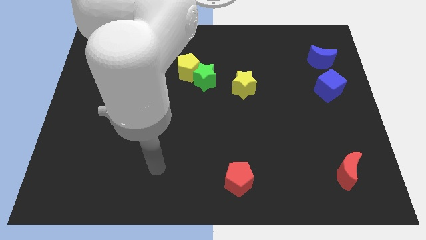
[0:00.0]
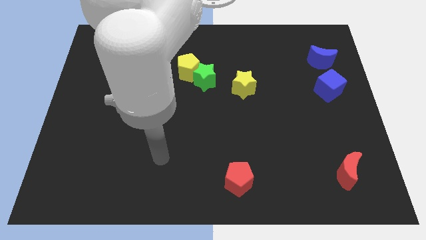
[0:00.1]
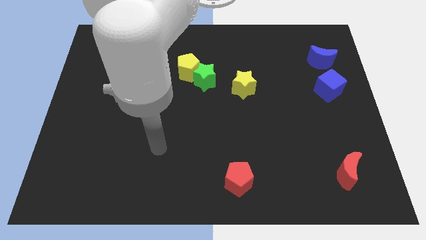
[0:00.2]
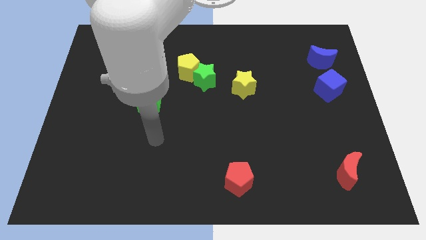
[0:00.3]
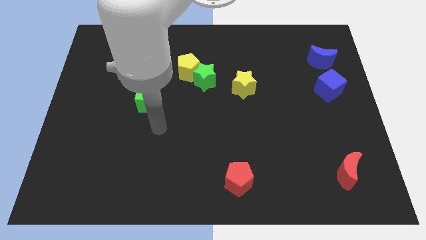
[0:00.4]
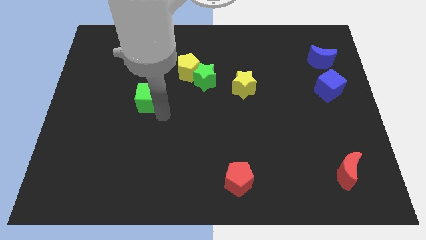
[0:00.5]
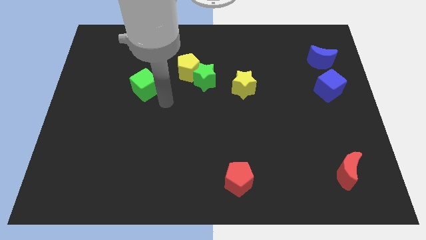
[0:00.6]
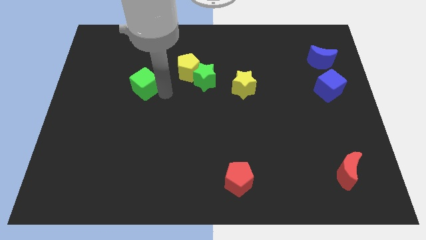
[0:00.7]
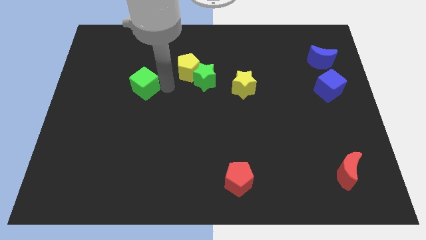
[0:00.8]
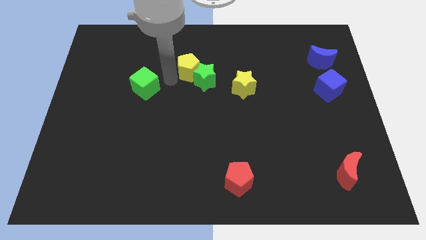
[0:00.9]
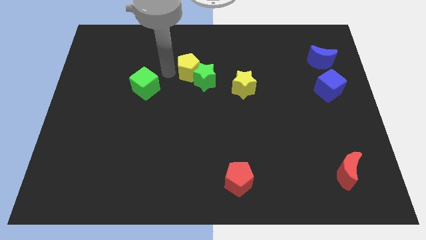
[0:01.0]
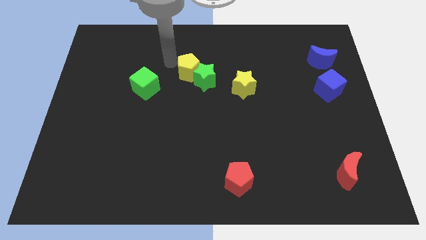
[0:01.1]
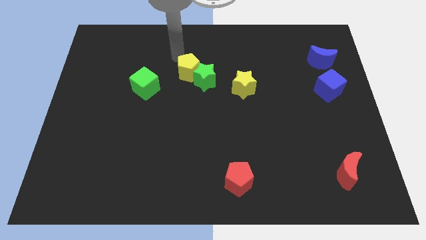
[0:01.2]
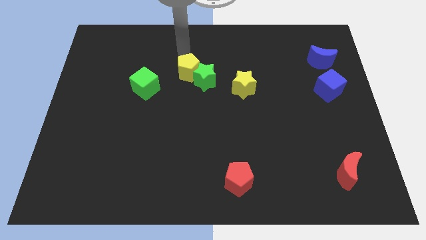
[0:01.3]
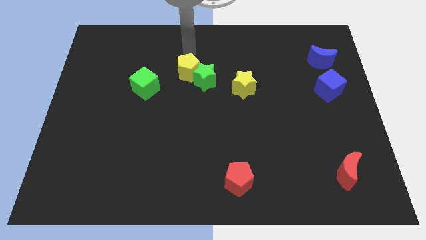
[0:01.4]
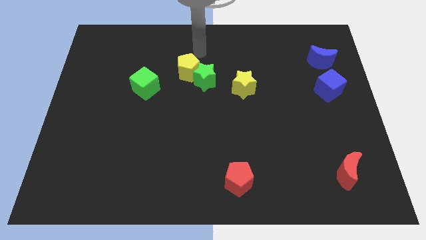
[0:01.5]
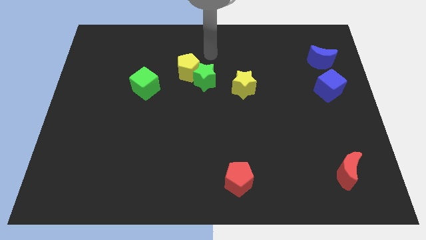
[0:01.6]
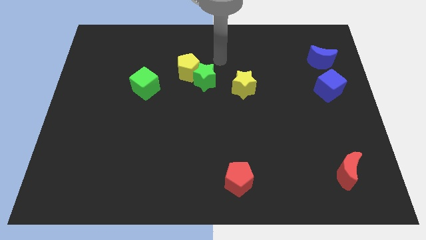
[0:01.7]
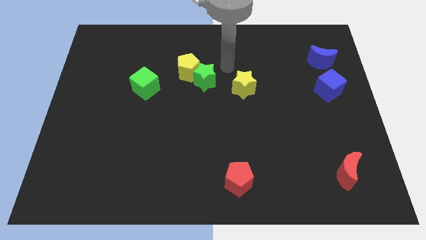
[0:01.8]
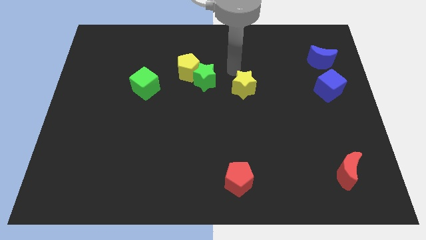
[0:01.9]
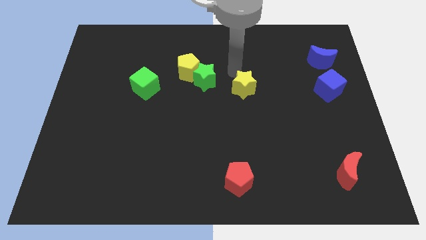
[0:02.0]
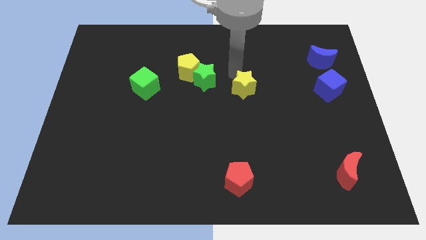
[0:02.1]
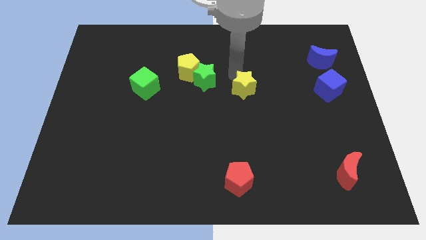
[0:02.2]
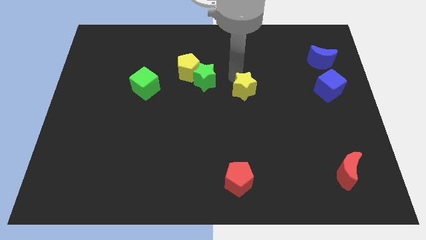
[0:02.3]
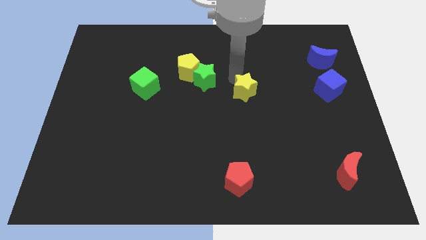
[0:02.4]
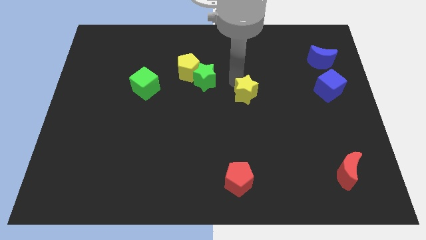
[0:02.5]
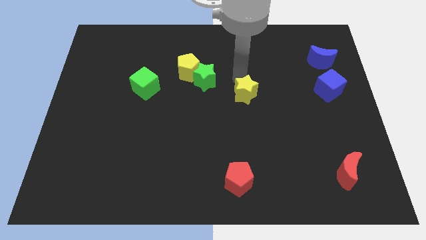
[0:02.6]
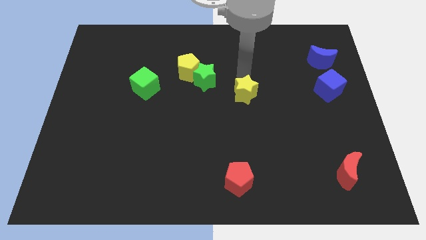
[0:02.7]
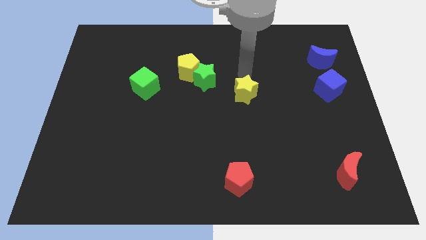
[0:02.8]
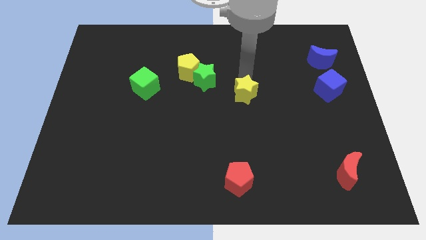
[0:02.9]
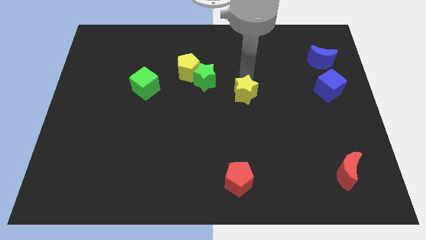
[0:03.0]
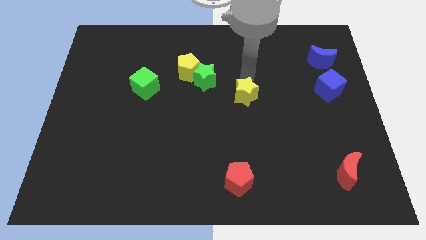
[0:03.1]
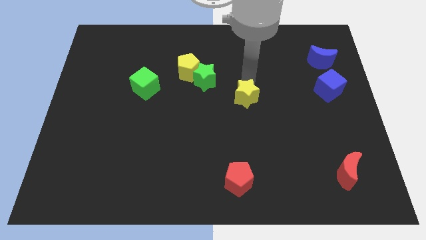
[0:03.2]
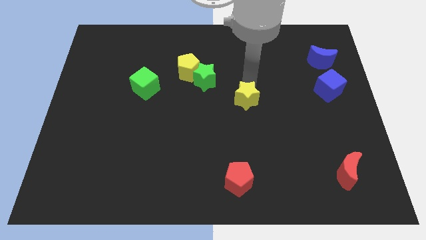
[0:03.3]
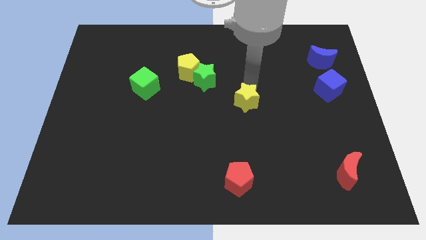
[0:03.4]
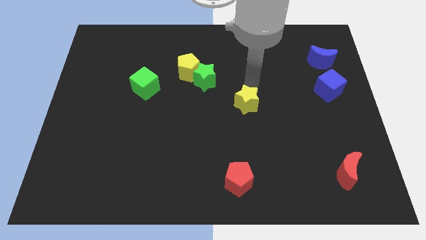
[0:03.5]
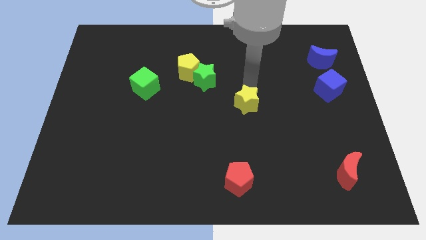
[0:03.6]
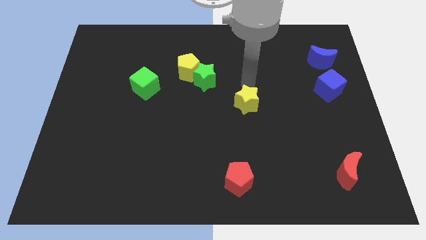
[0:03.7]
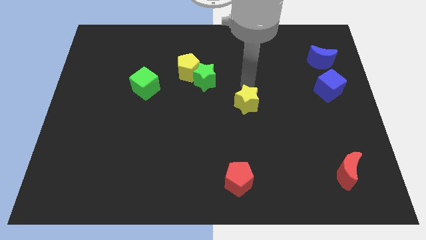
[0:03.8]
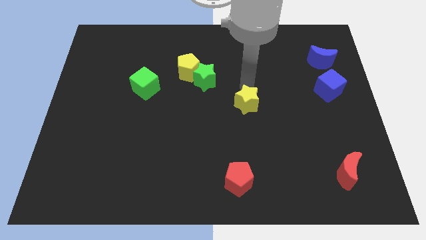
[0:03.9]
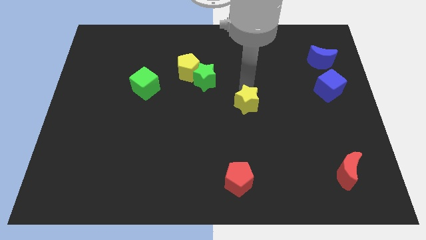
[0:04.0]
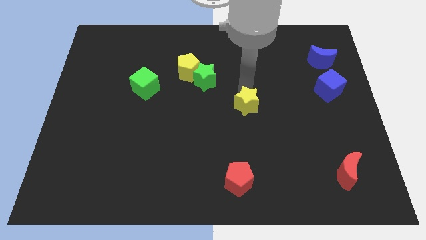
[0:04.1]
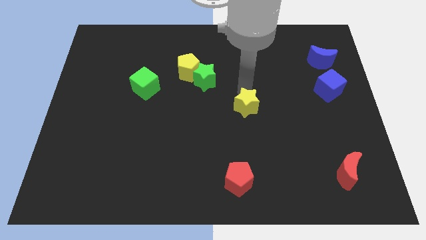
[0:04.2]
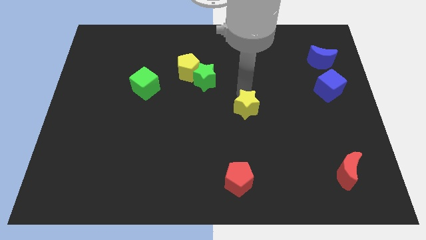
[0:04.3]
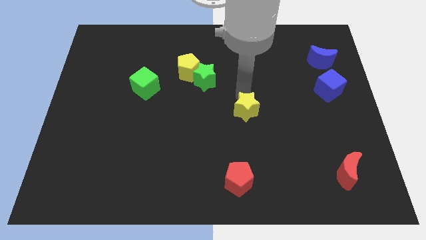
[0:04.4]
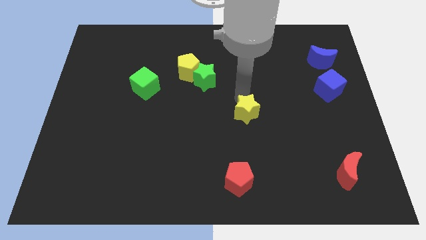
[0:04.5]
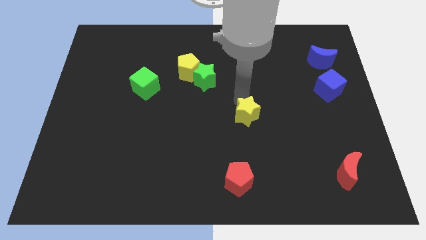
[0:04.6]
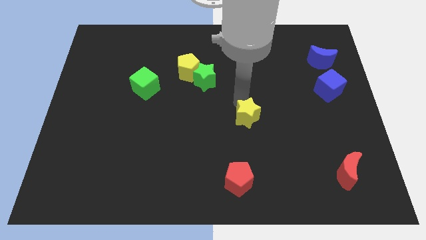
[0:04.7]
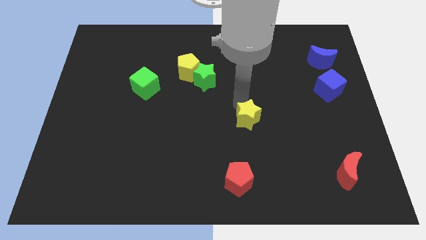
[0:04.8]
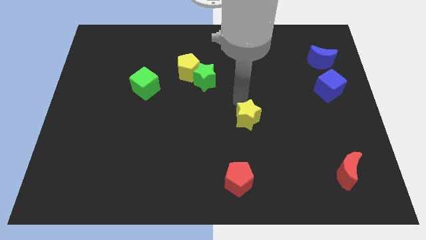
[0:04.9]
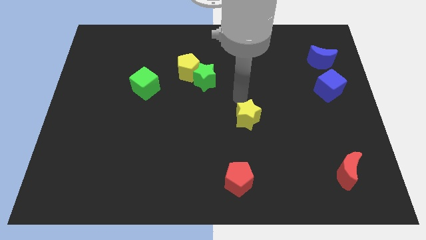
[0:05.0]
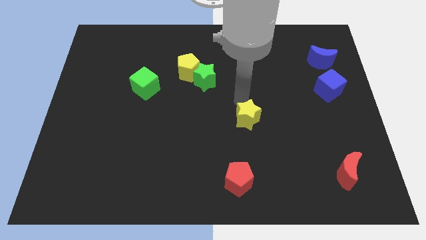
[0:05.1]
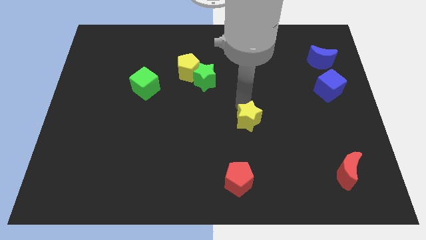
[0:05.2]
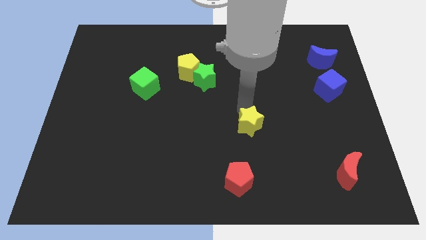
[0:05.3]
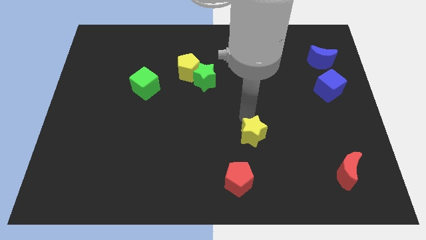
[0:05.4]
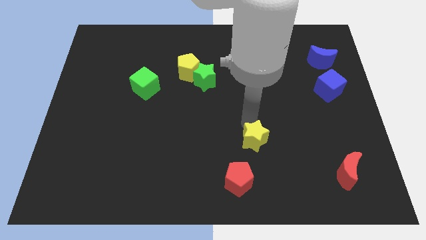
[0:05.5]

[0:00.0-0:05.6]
slide the yellow star to the top right side of the red pentagon

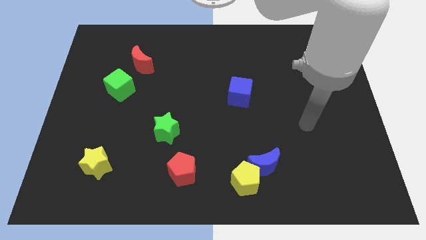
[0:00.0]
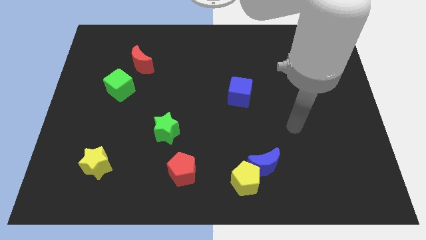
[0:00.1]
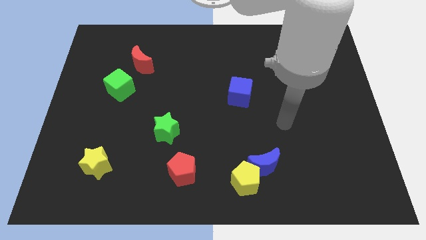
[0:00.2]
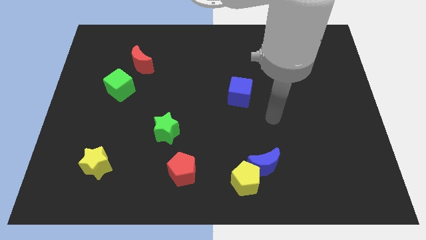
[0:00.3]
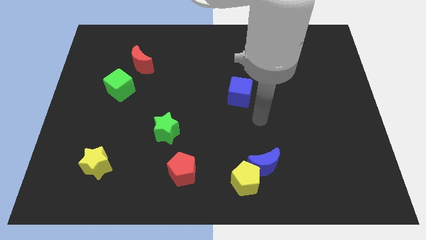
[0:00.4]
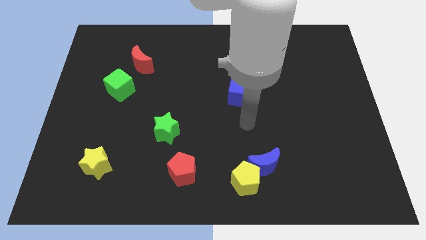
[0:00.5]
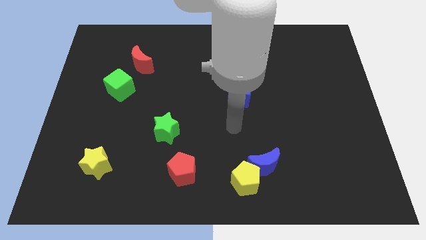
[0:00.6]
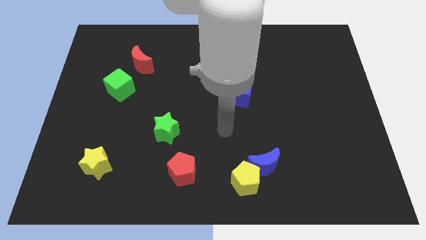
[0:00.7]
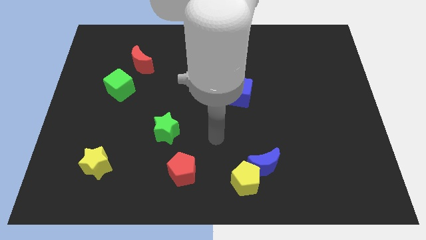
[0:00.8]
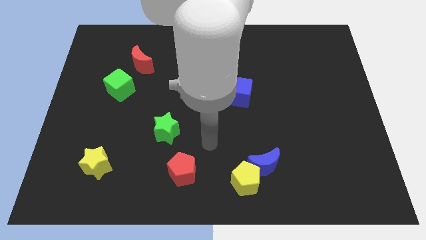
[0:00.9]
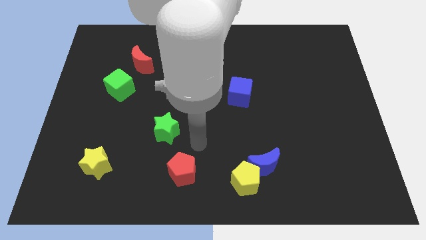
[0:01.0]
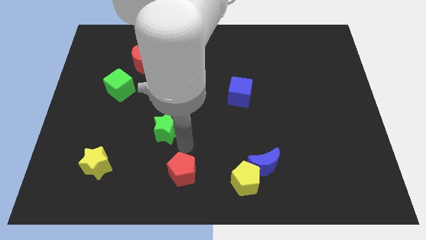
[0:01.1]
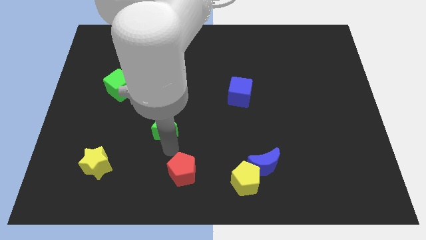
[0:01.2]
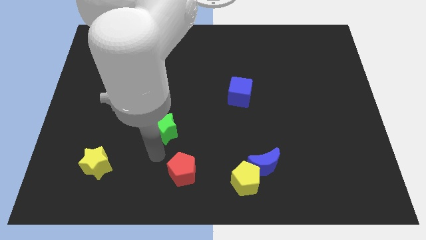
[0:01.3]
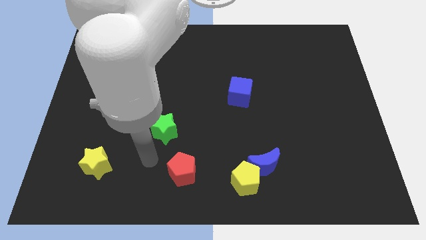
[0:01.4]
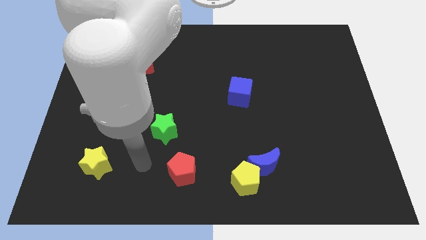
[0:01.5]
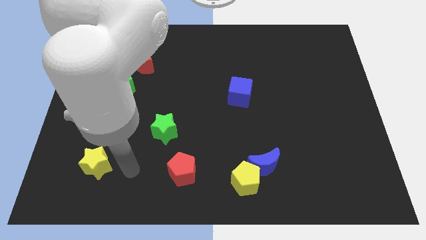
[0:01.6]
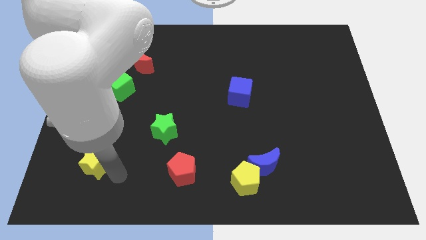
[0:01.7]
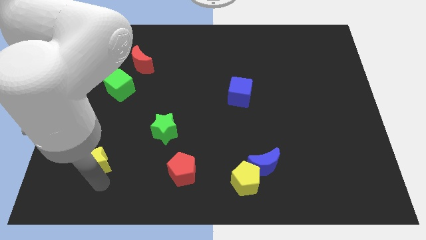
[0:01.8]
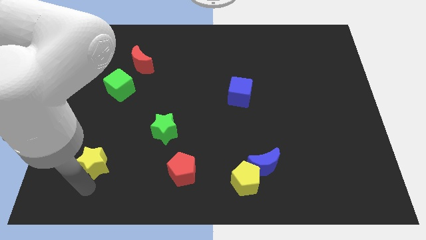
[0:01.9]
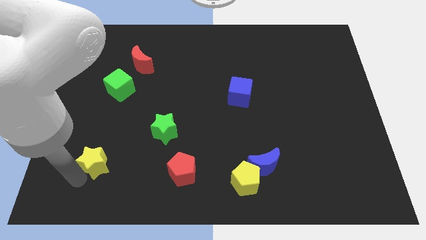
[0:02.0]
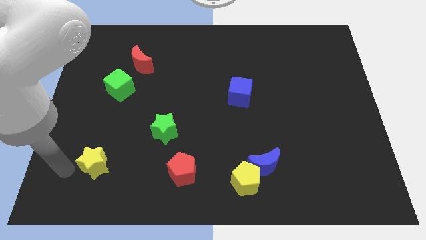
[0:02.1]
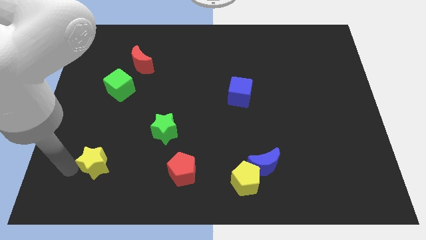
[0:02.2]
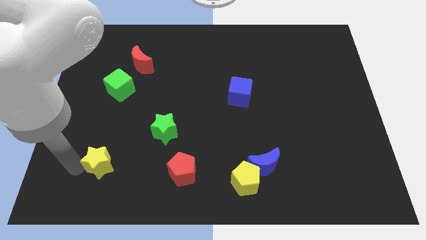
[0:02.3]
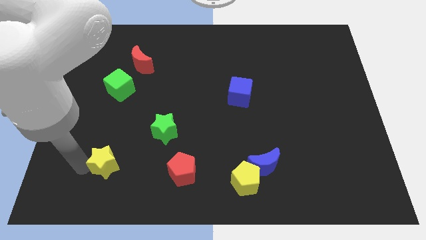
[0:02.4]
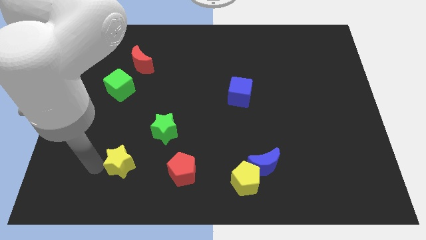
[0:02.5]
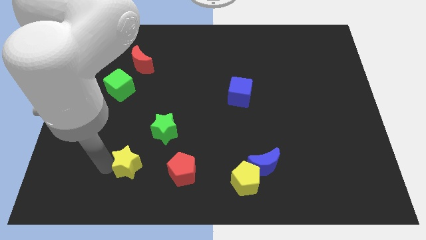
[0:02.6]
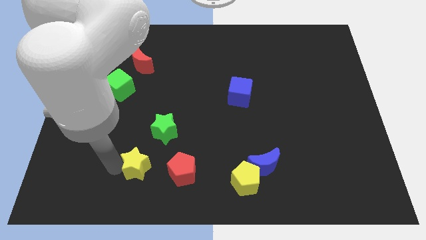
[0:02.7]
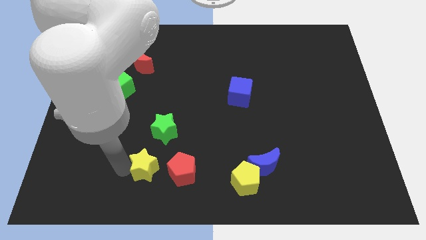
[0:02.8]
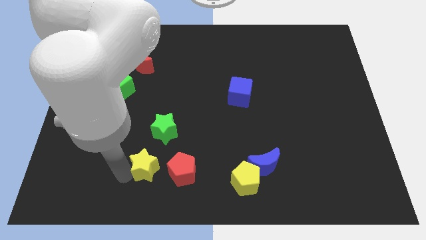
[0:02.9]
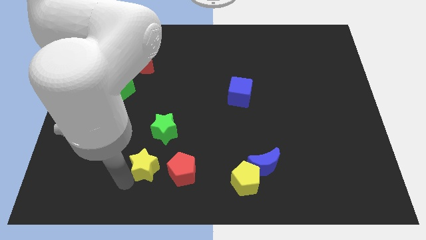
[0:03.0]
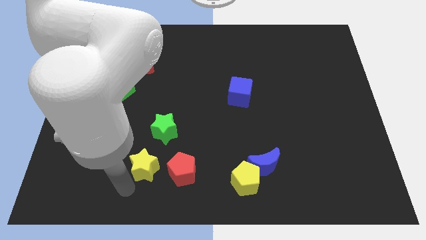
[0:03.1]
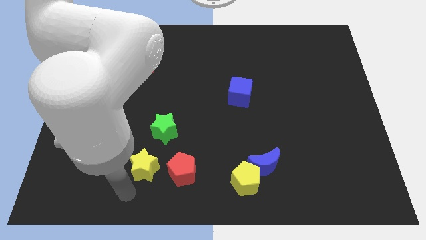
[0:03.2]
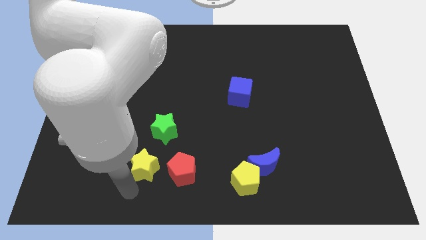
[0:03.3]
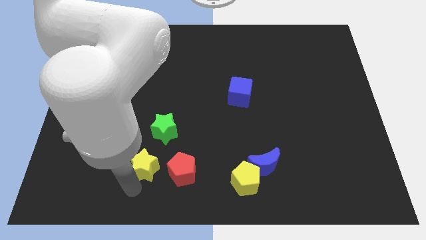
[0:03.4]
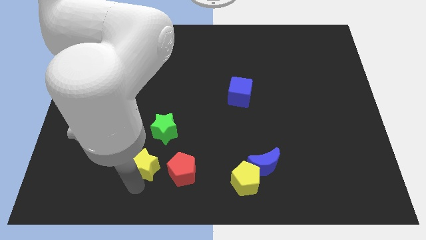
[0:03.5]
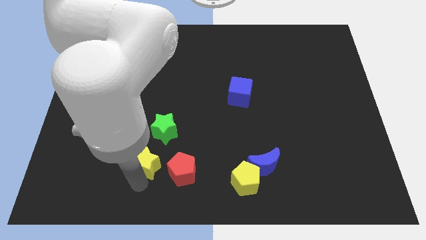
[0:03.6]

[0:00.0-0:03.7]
push the yellow star to the top left side of the red pentagon
